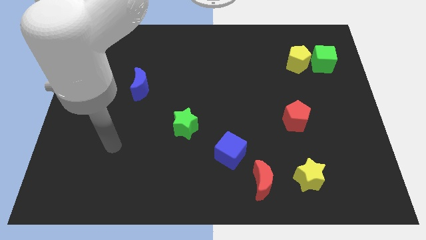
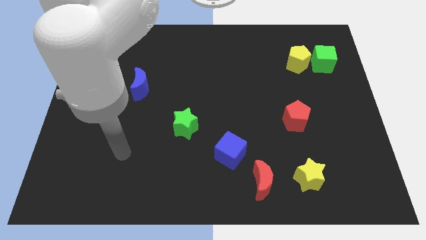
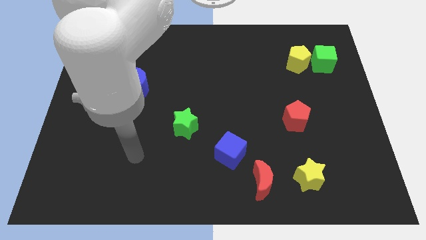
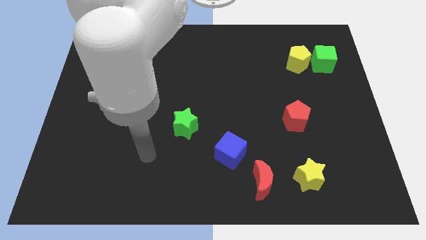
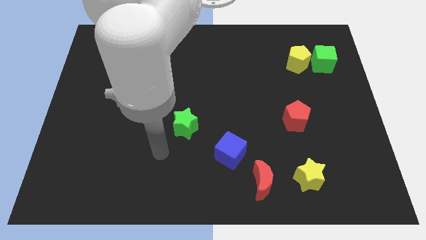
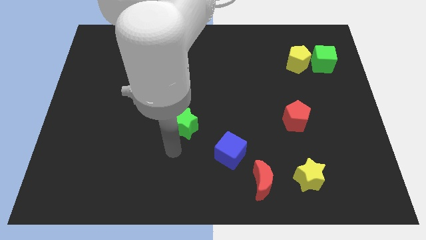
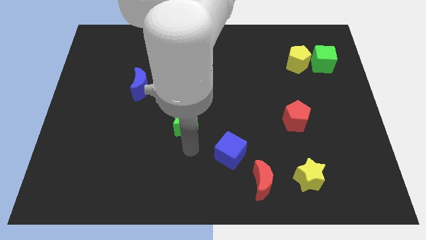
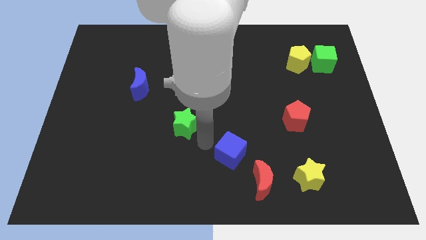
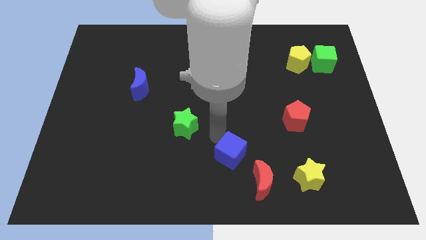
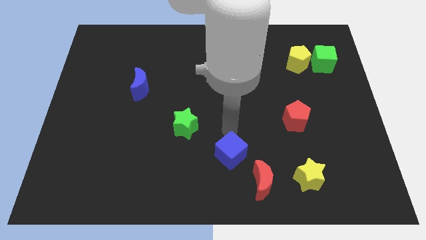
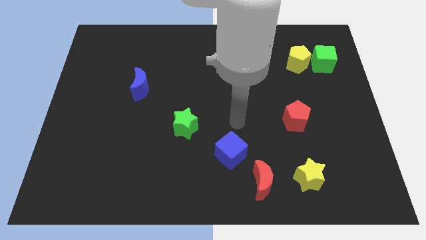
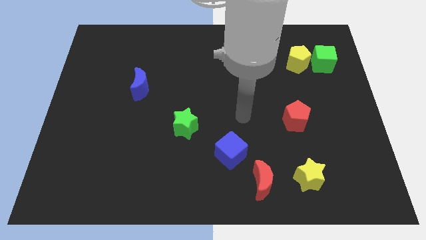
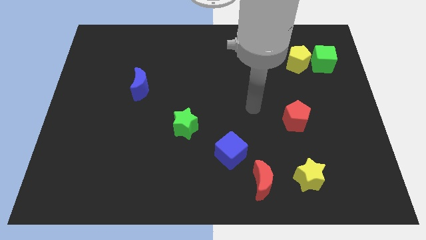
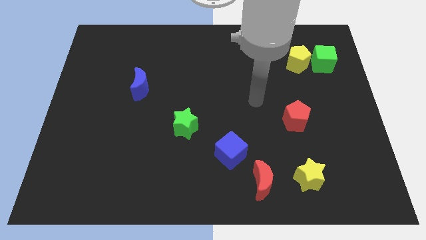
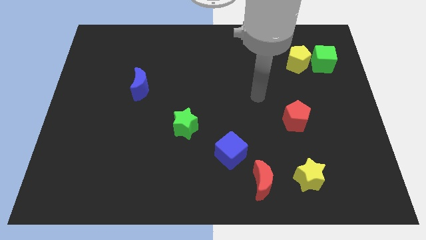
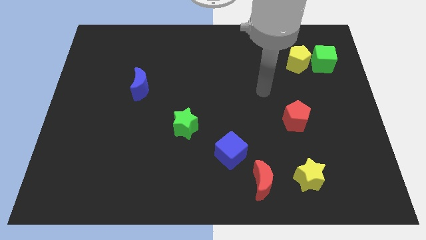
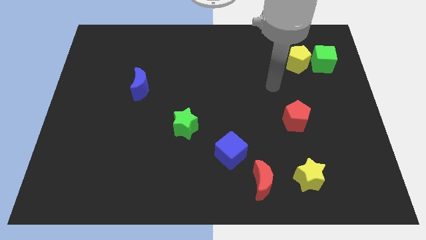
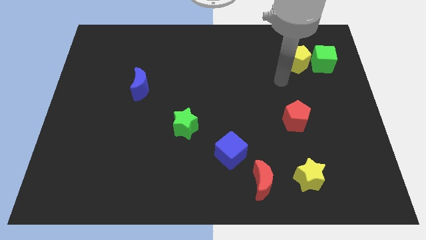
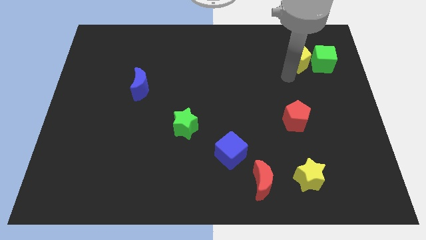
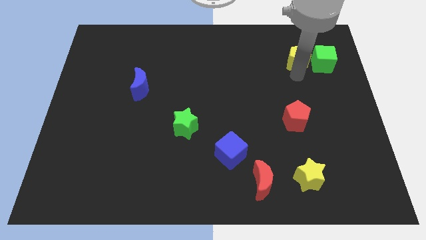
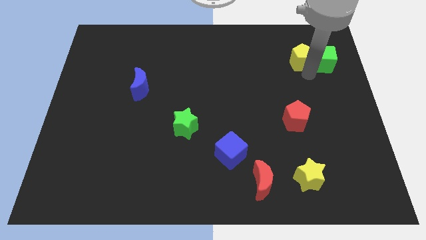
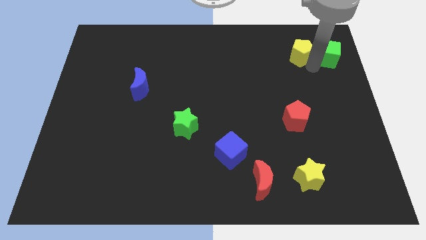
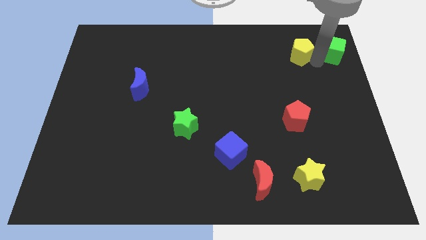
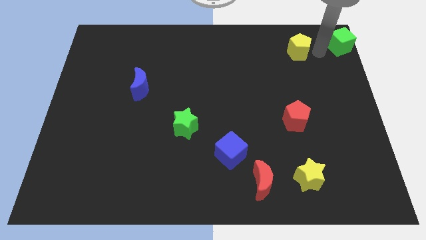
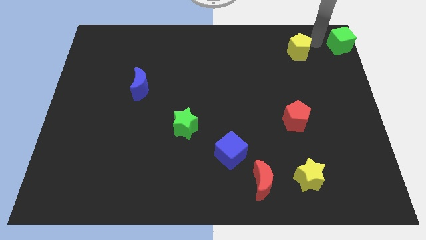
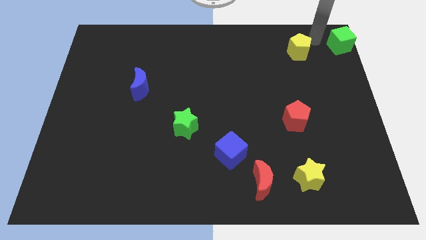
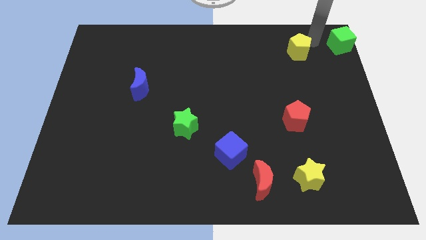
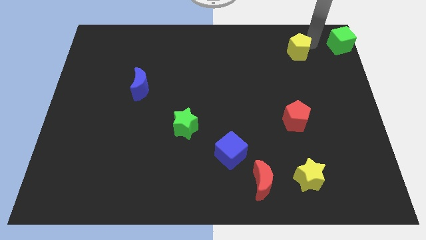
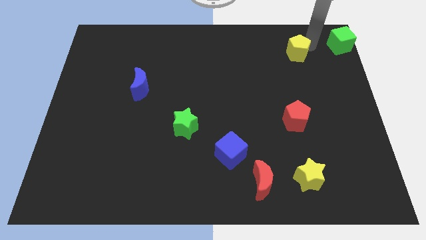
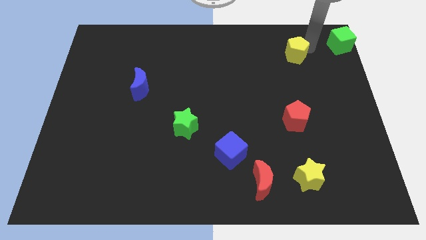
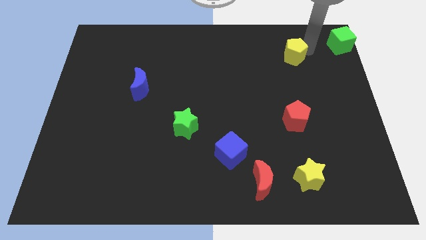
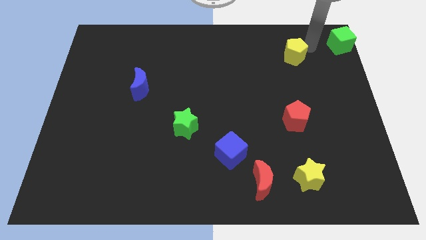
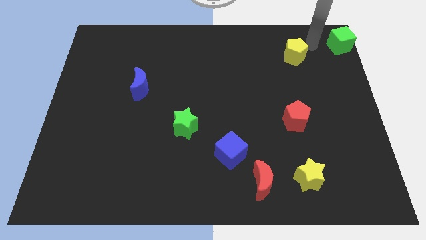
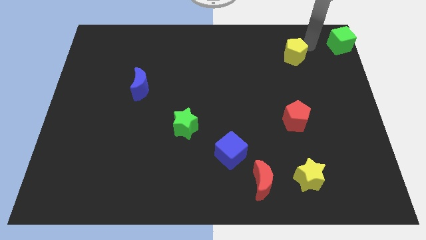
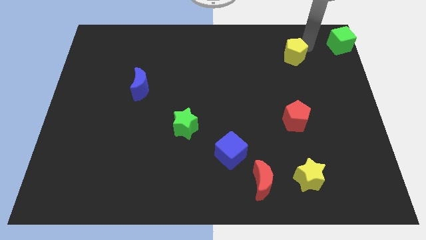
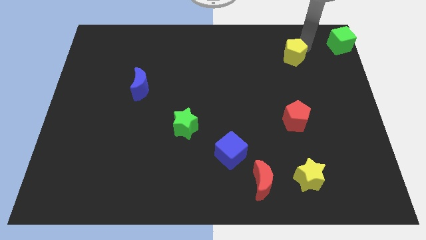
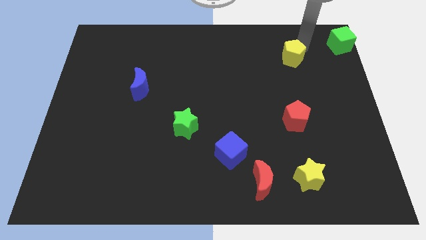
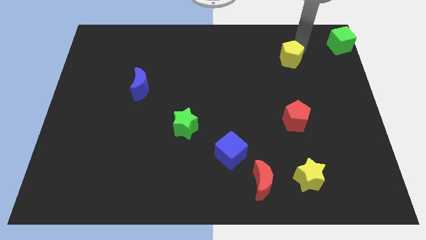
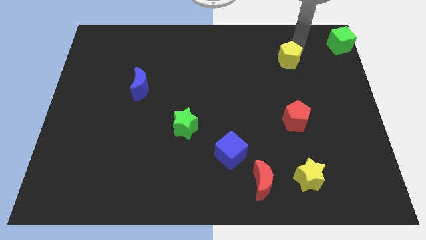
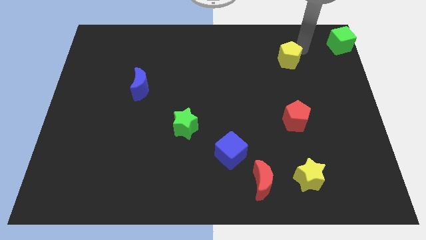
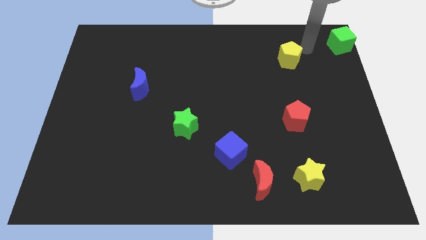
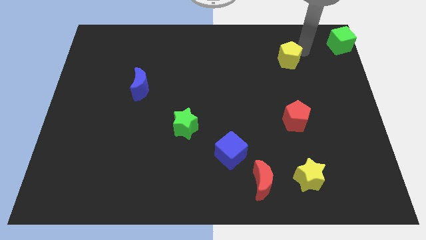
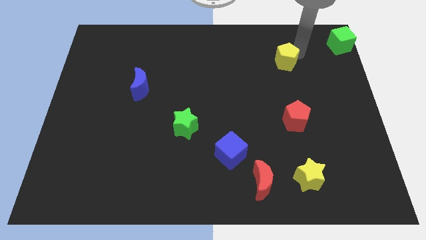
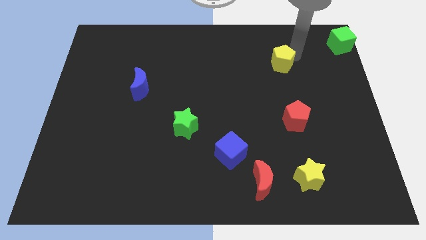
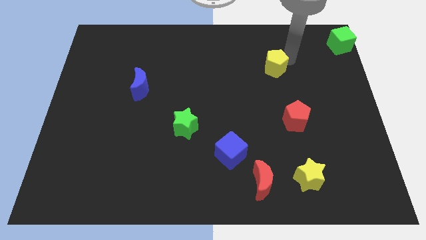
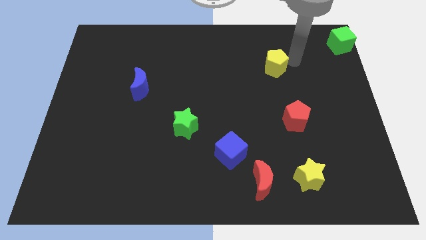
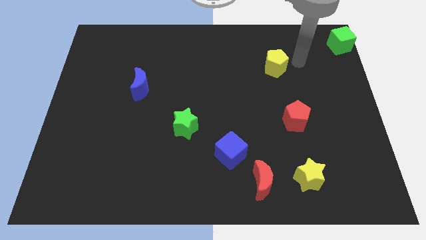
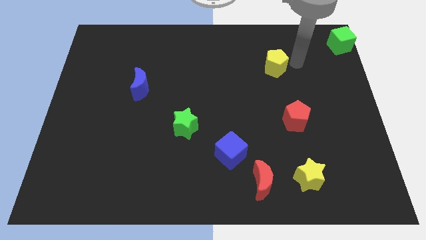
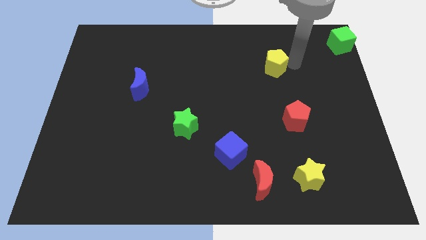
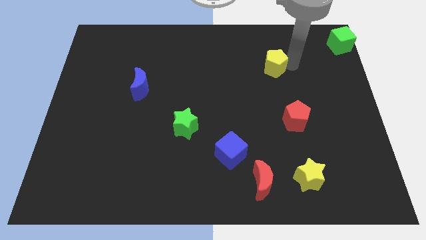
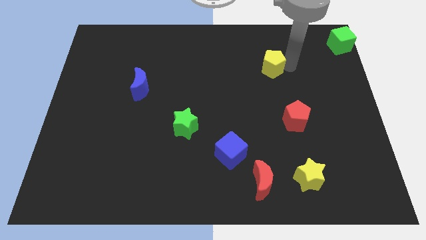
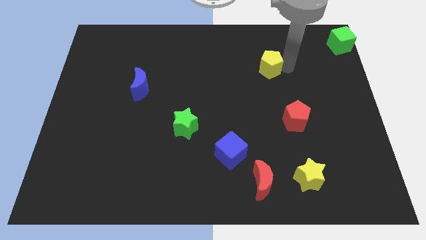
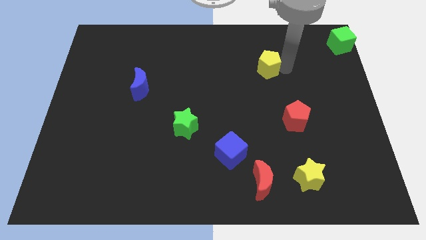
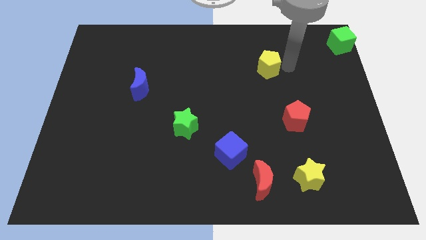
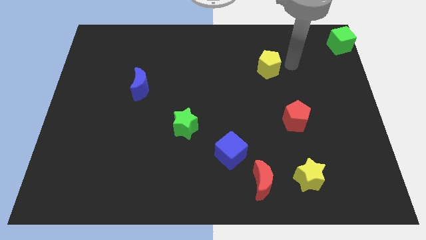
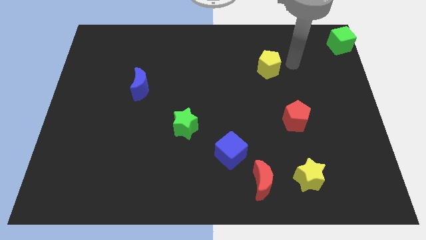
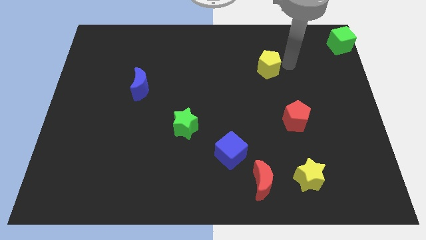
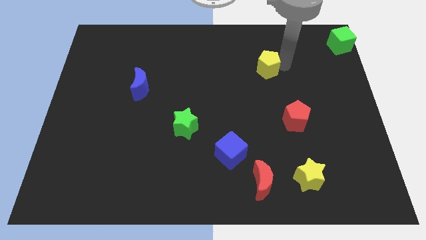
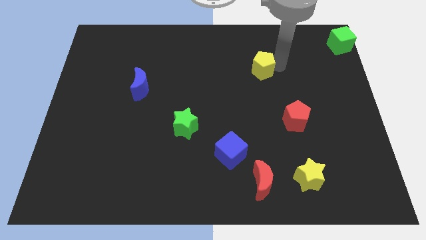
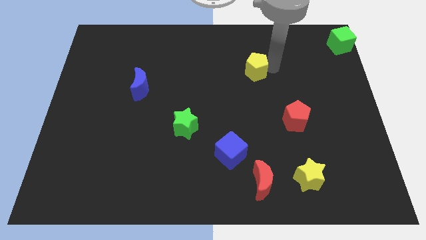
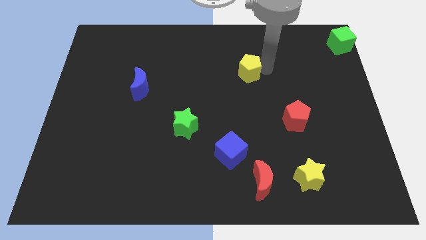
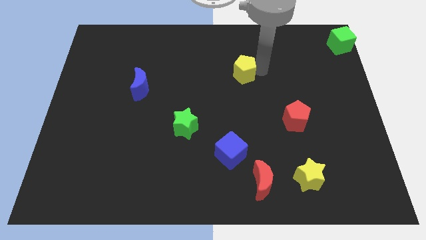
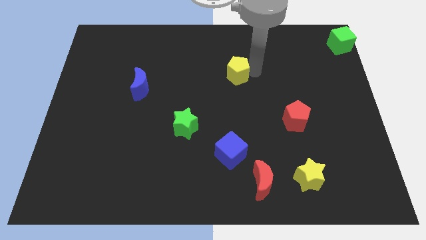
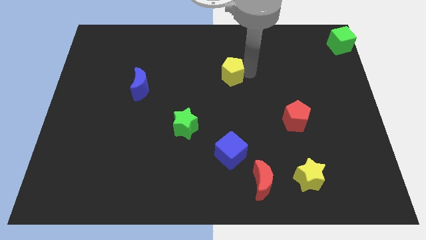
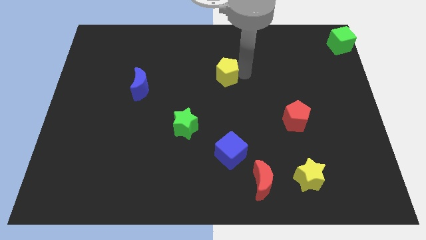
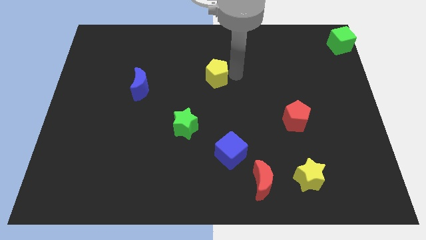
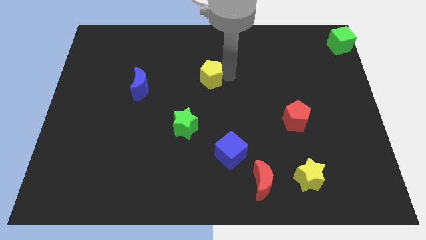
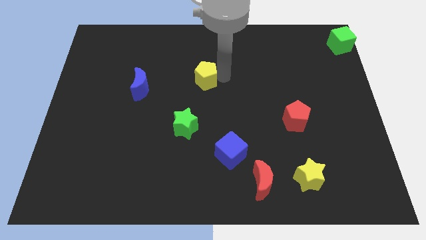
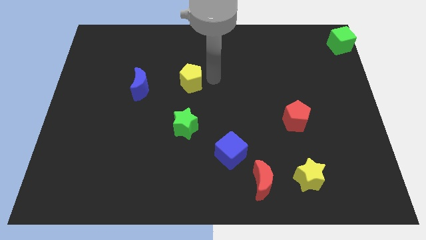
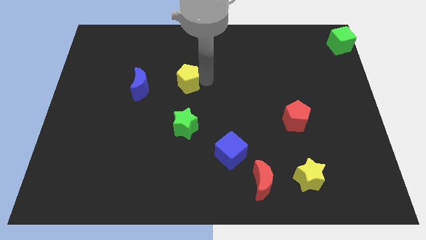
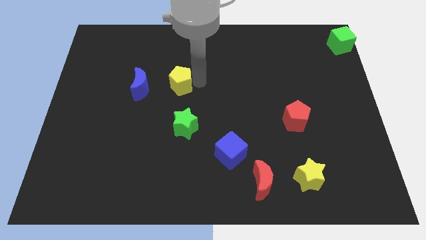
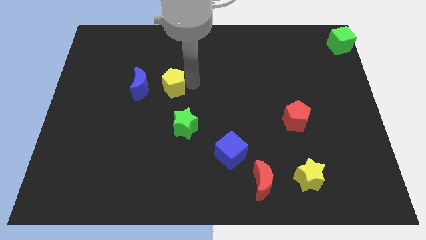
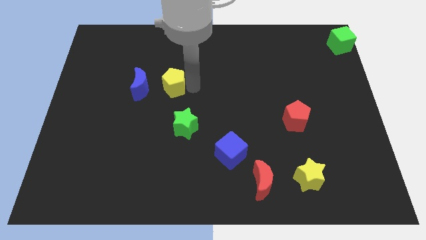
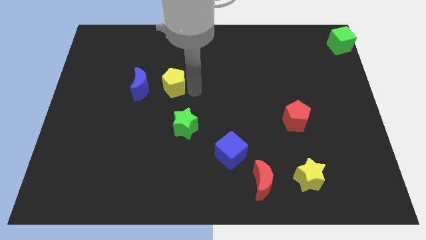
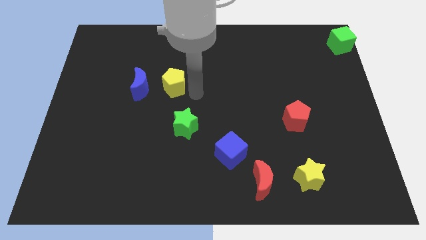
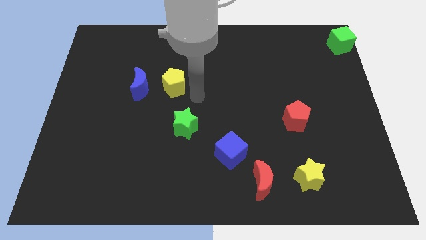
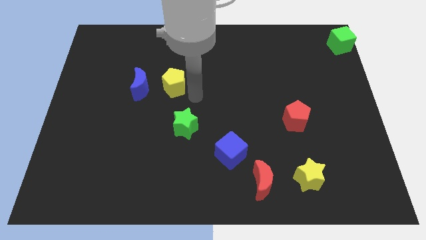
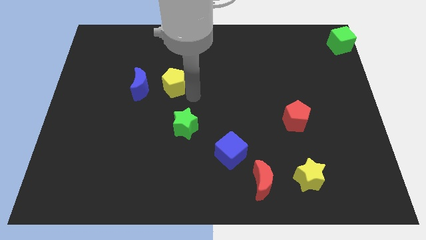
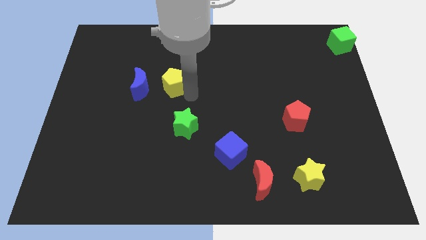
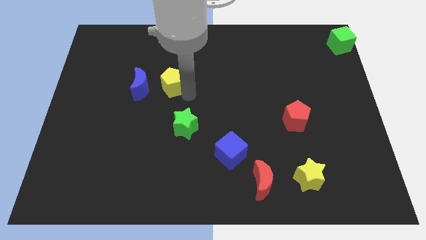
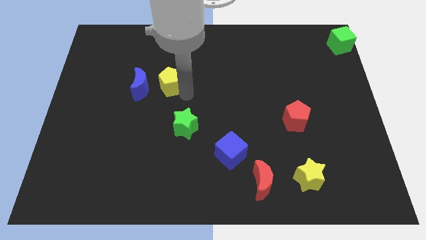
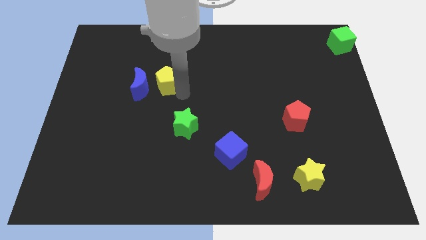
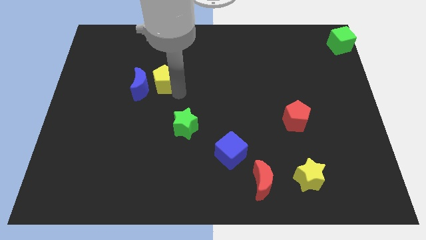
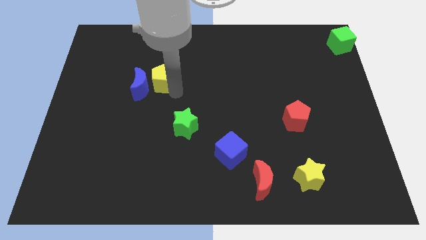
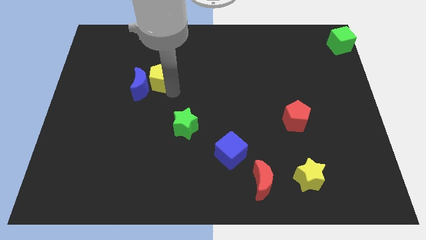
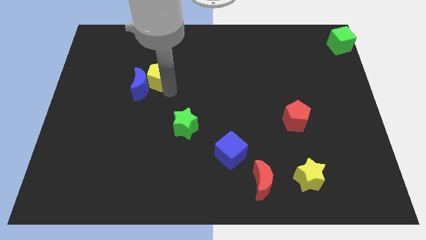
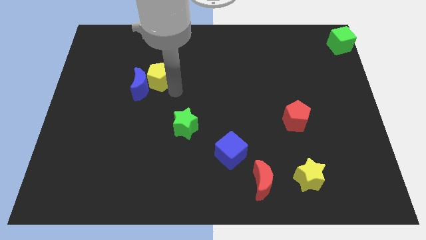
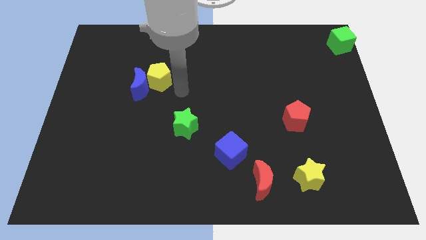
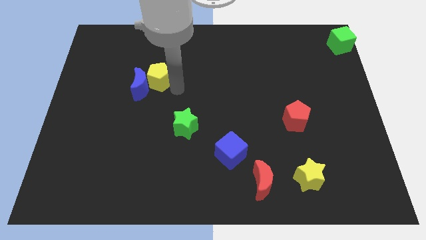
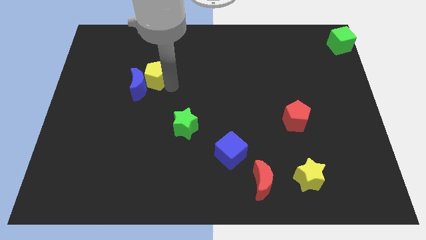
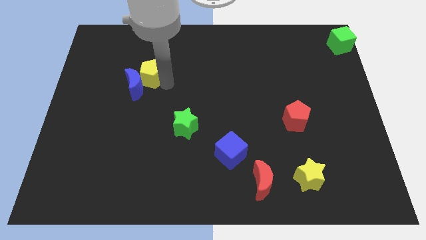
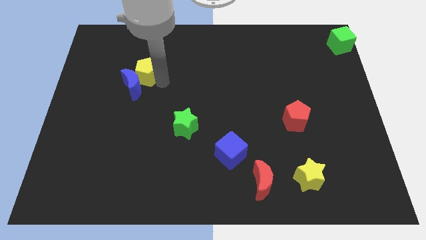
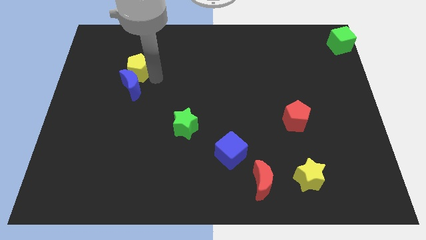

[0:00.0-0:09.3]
move the yellow pentagon diagonally up and to the left of the blue moon
